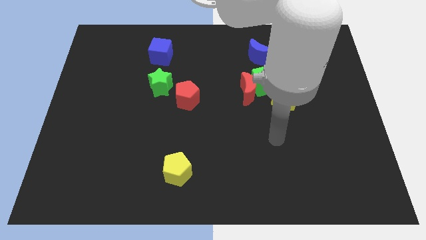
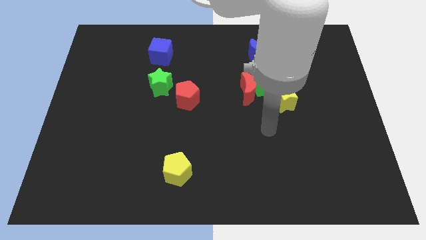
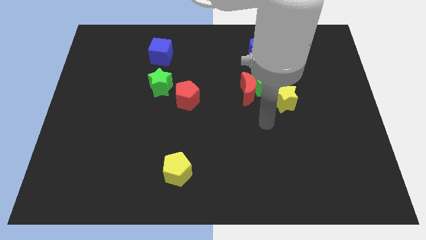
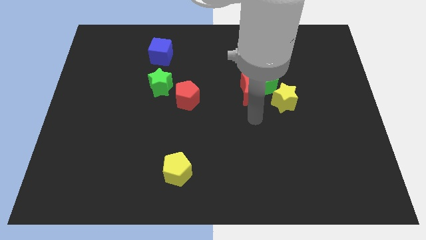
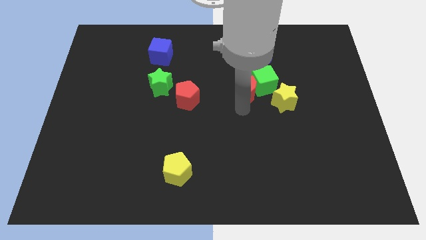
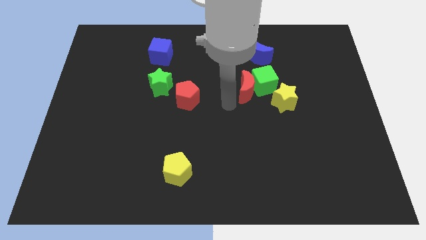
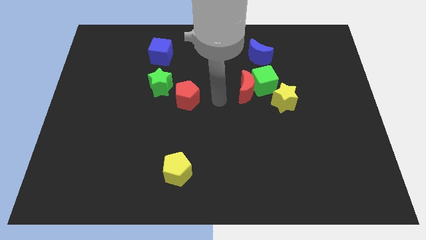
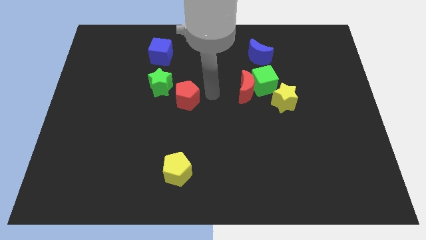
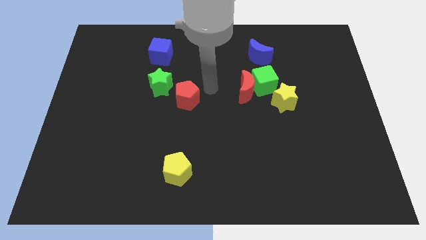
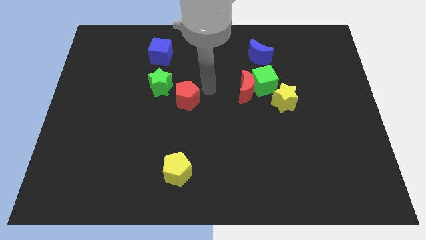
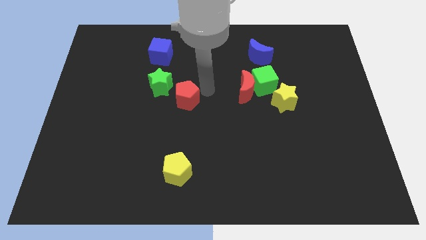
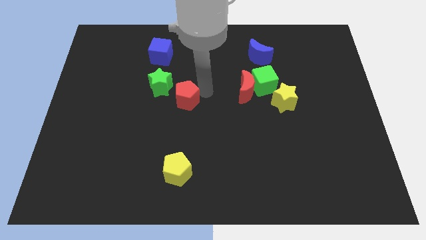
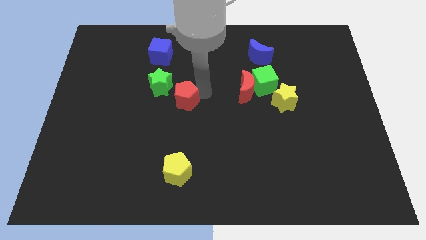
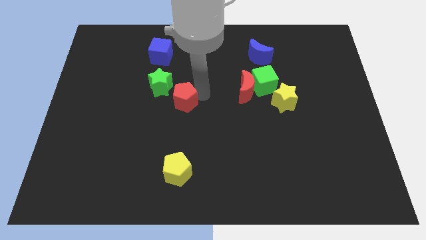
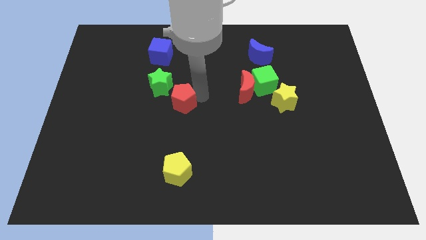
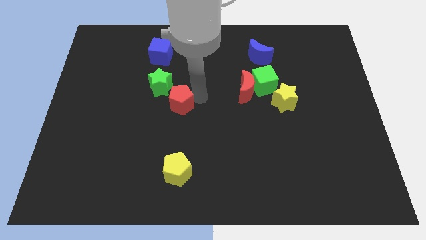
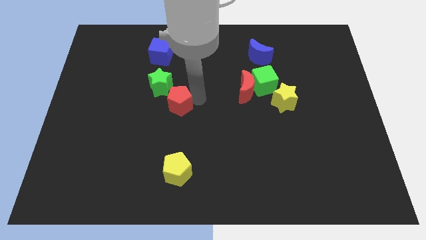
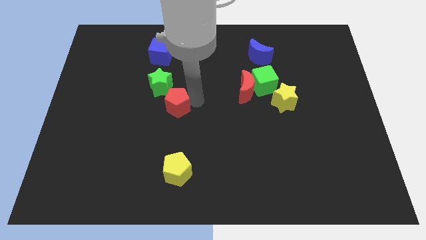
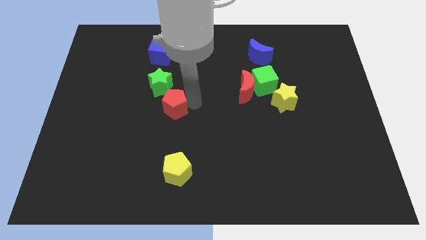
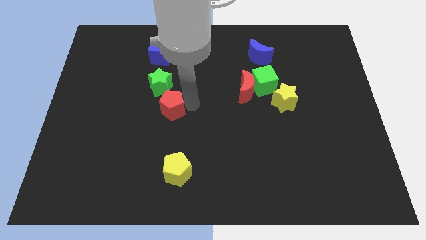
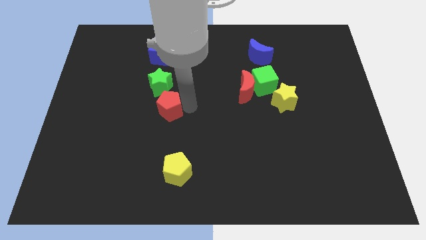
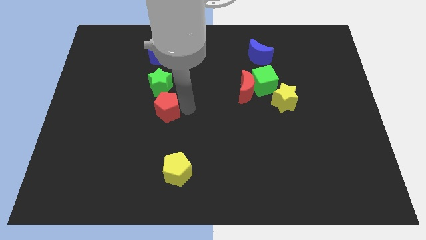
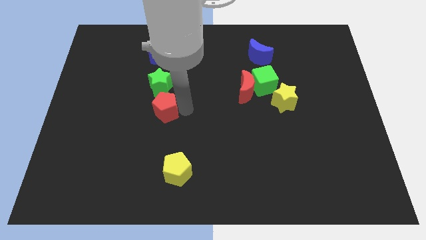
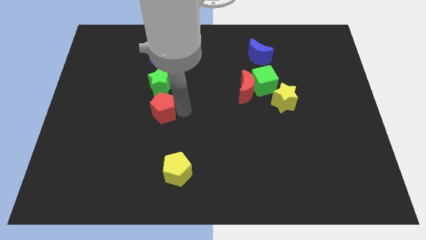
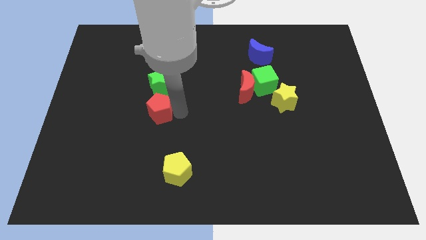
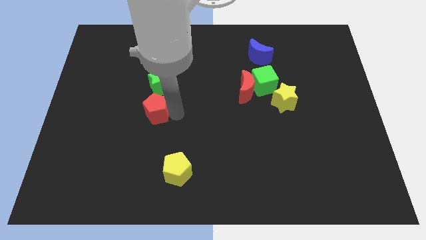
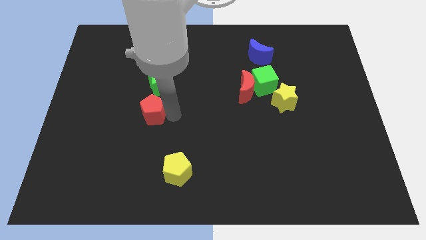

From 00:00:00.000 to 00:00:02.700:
move the red pentagon to the left slightly

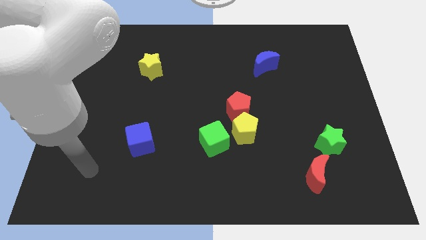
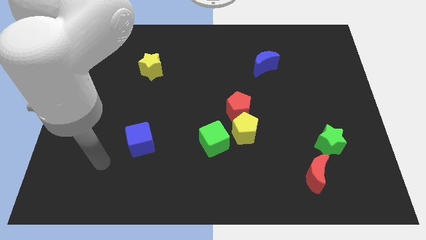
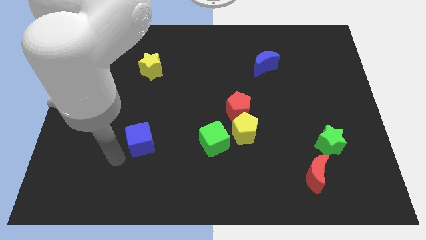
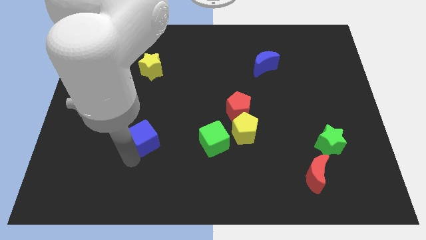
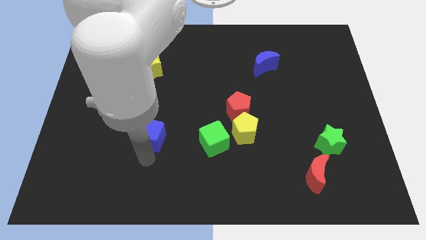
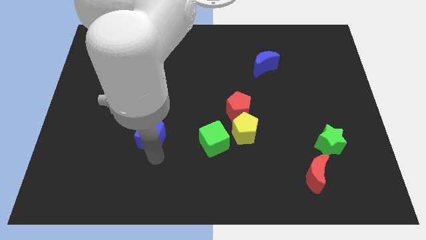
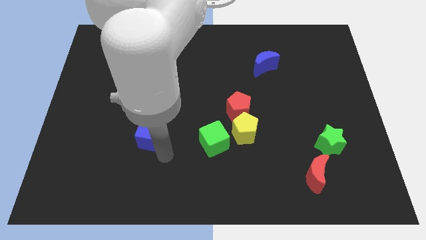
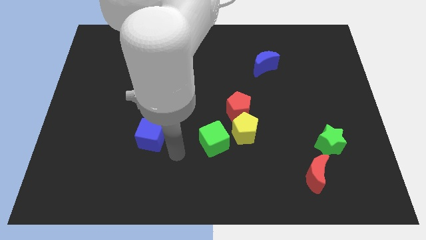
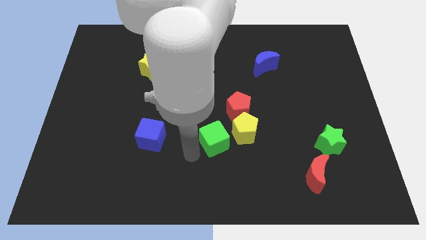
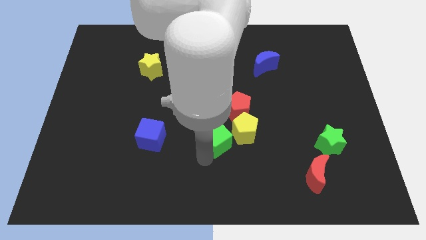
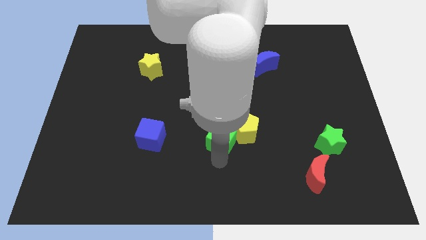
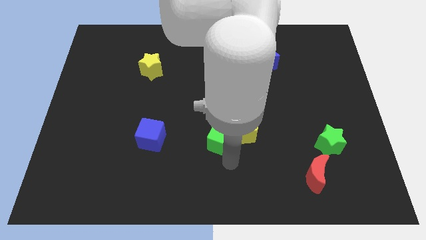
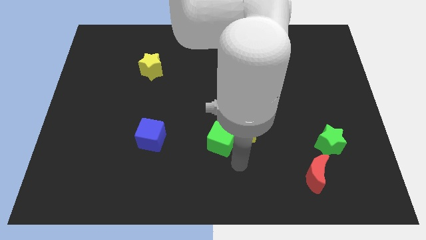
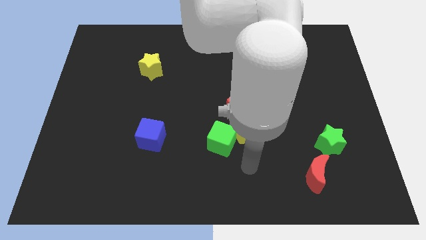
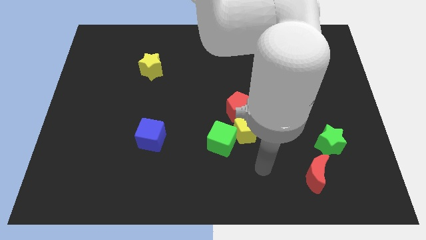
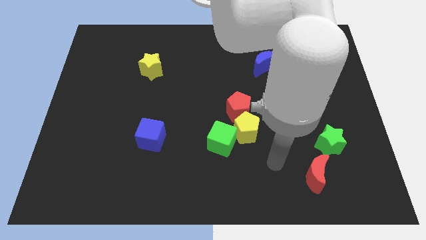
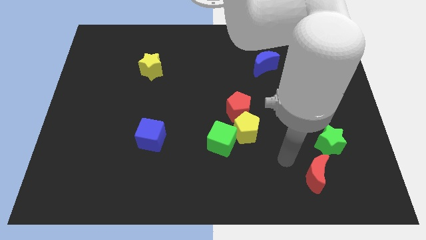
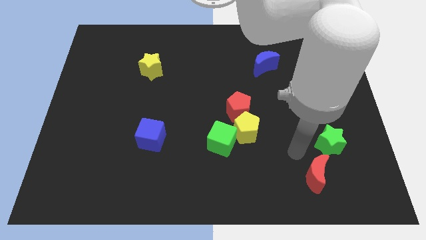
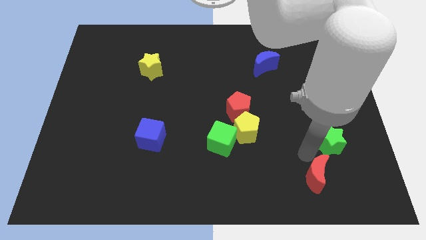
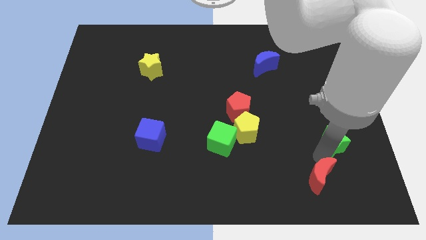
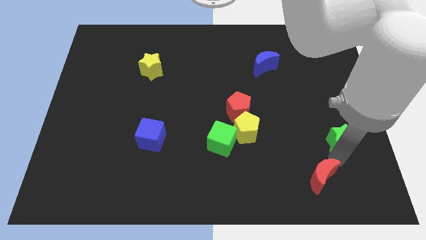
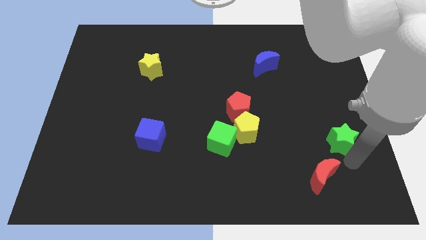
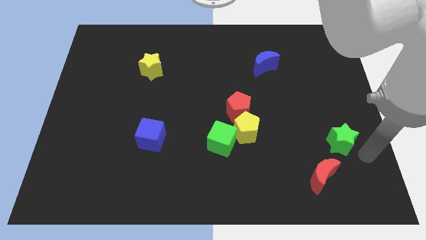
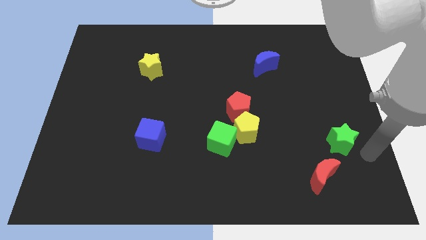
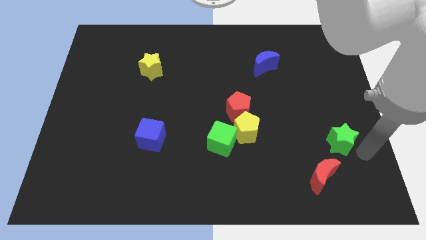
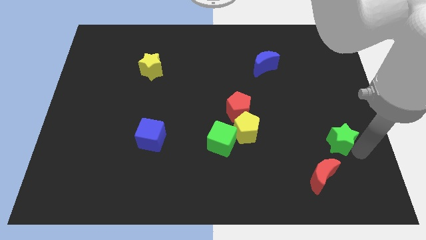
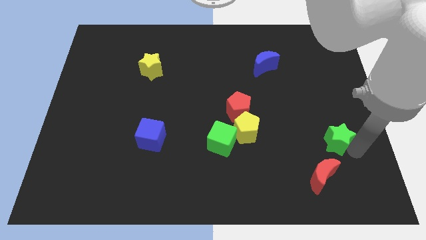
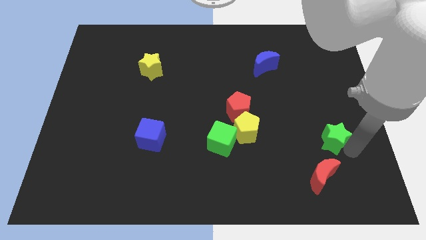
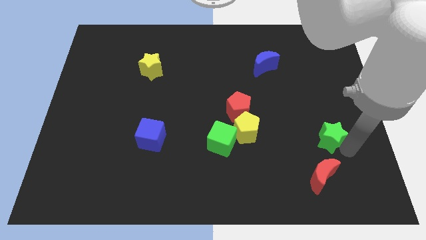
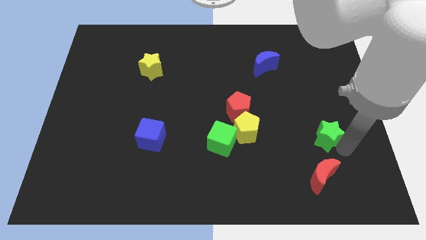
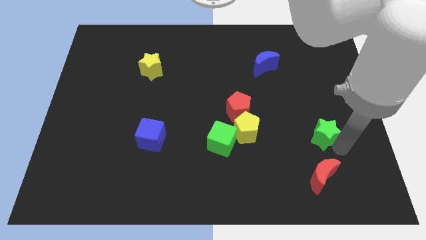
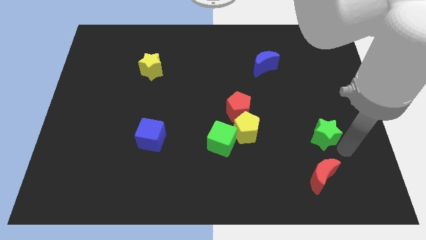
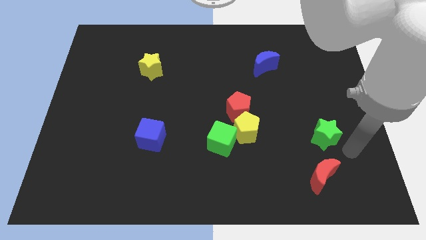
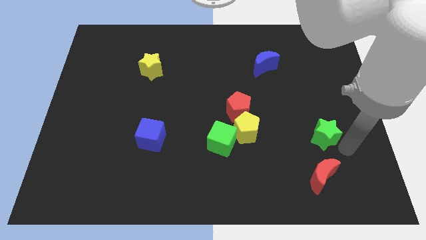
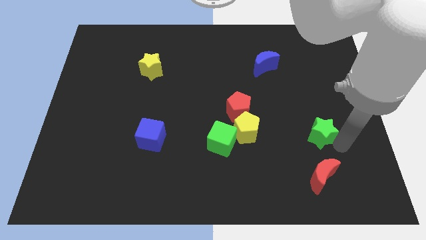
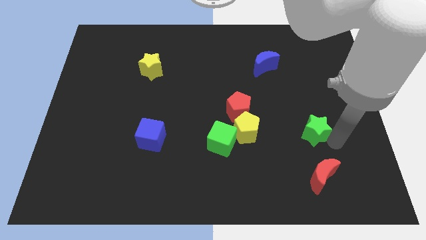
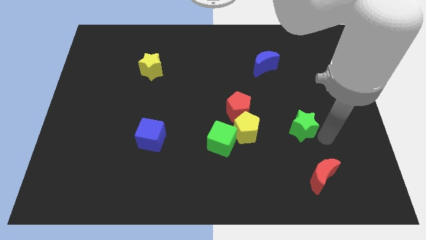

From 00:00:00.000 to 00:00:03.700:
move the green star slightly up and left

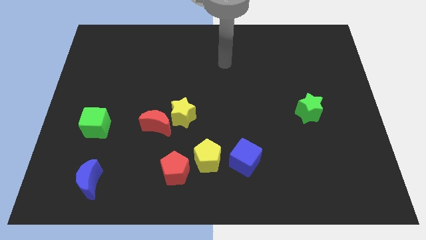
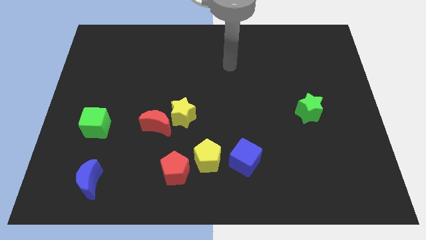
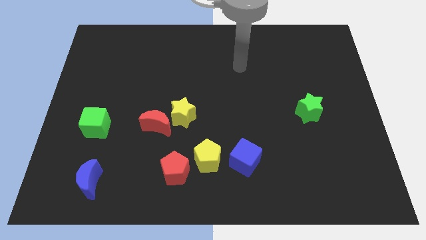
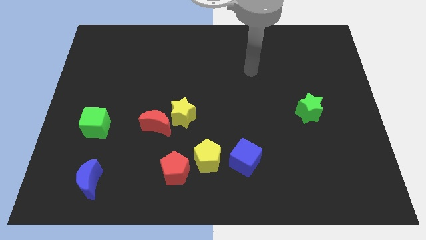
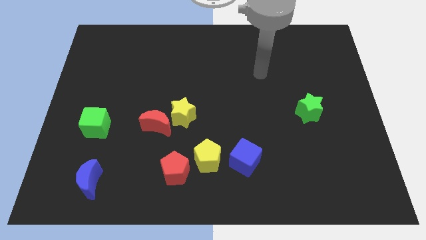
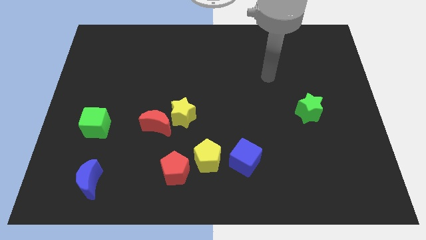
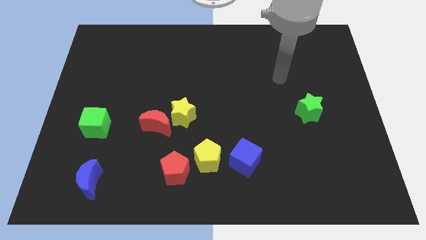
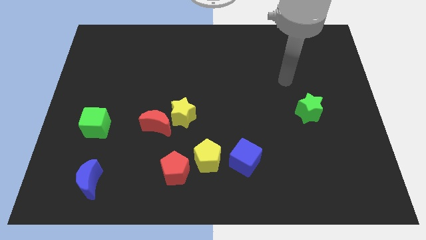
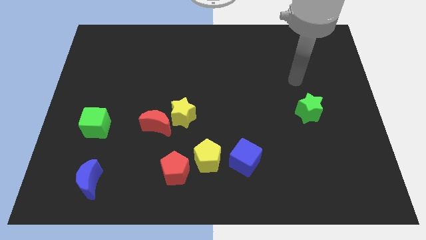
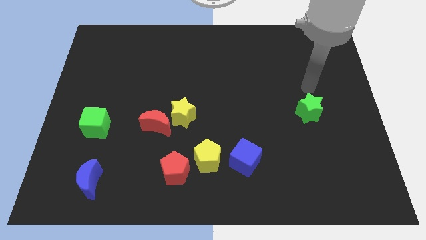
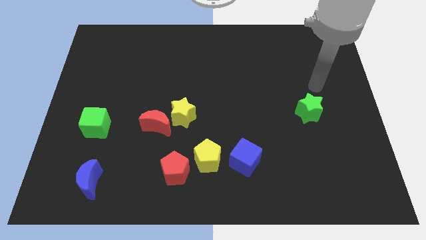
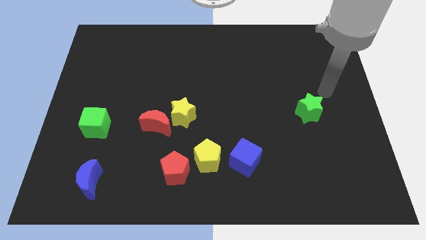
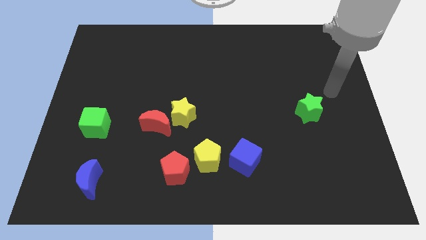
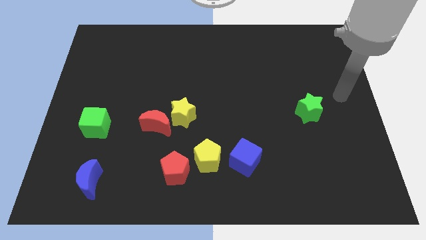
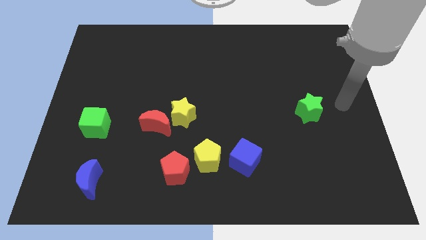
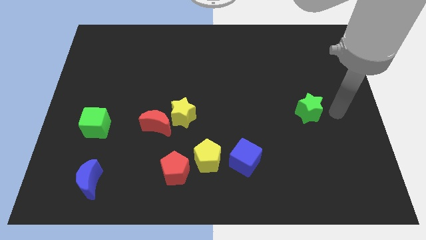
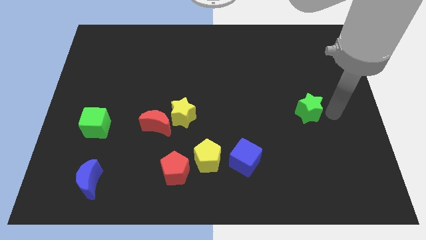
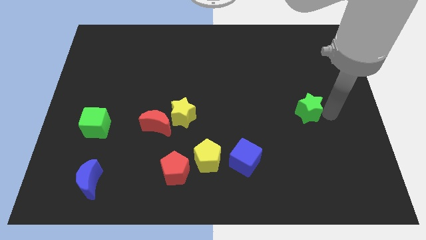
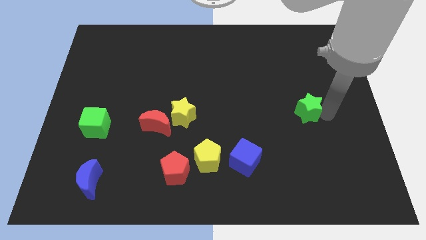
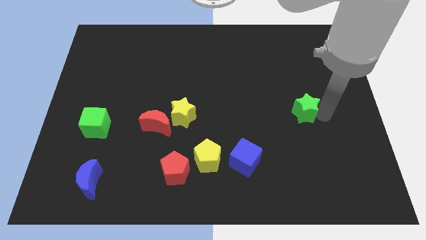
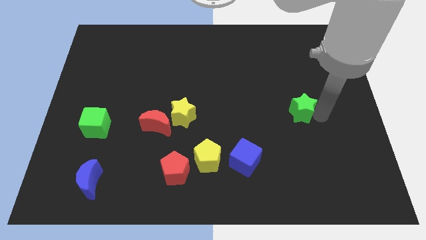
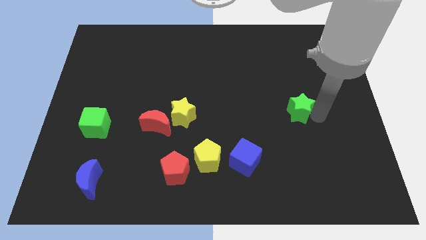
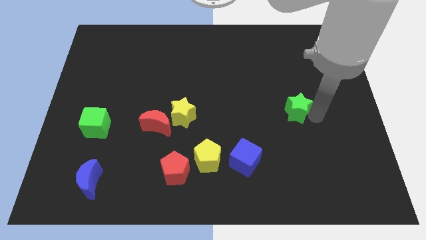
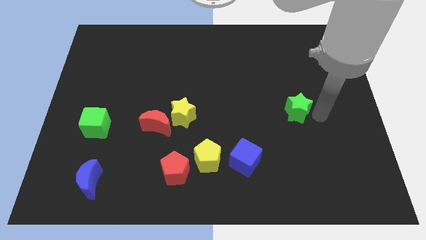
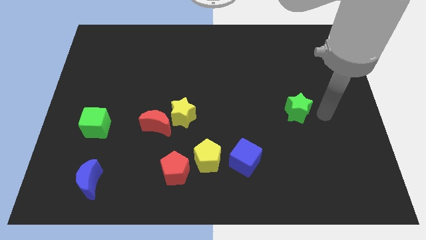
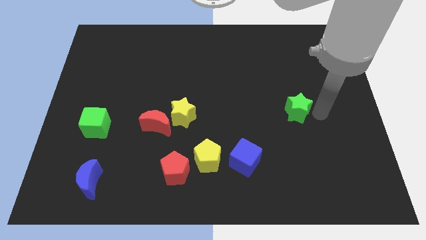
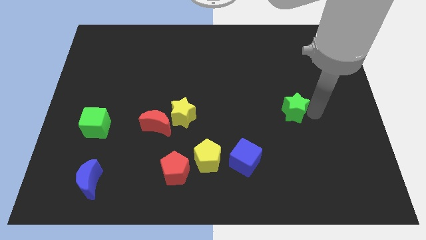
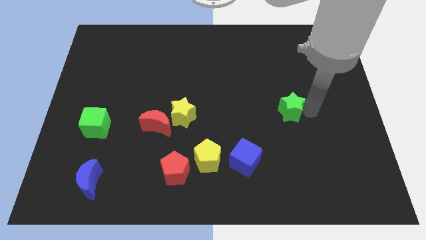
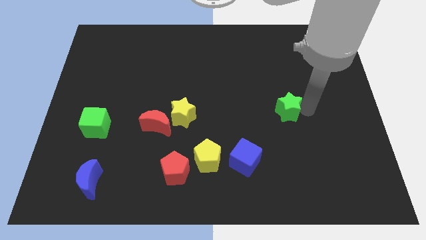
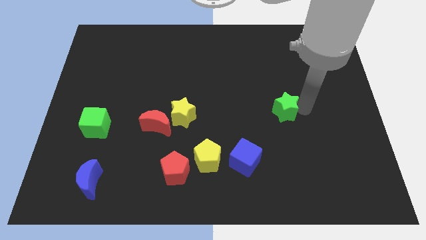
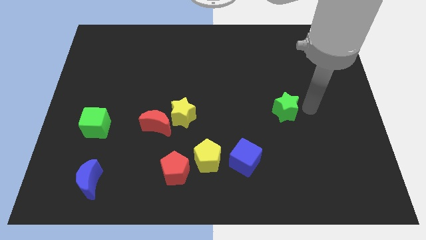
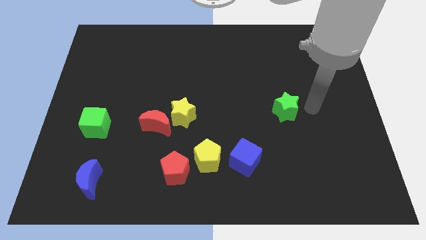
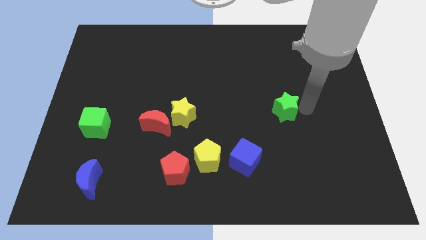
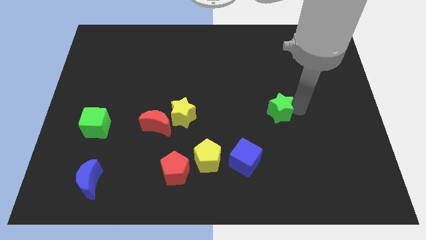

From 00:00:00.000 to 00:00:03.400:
push the green star a bit to the left
